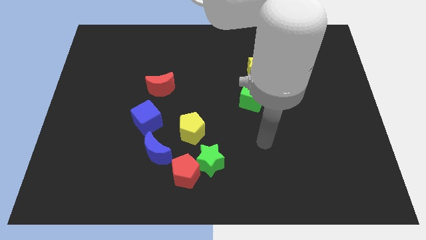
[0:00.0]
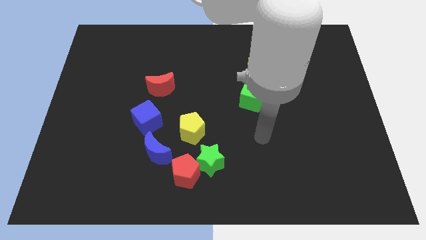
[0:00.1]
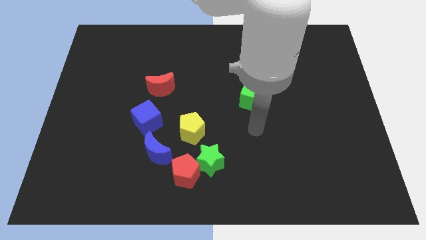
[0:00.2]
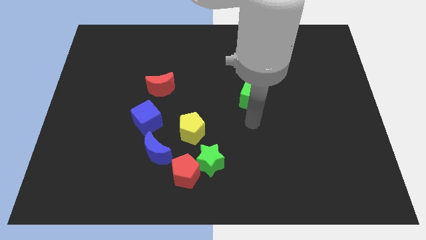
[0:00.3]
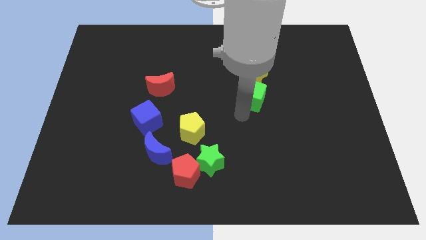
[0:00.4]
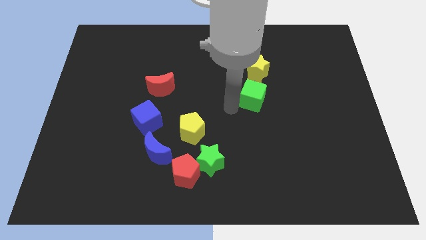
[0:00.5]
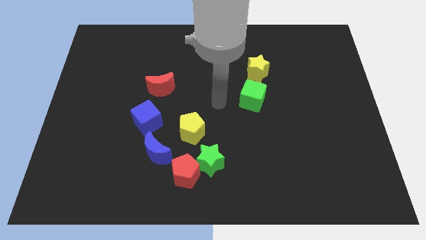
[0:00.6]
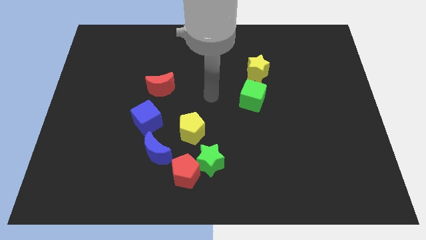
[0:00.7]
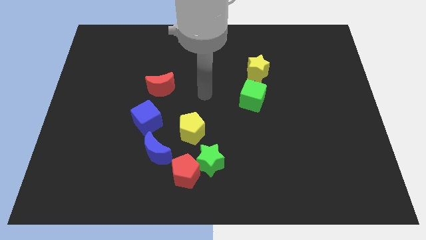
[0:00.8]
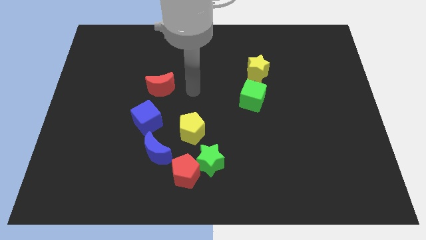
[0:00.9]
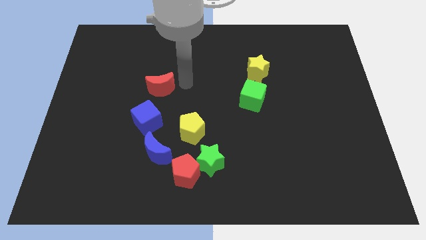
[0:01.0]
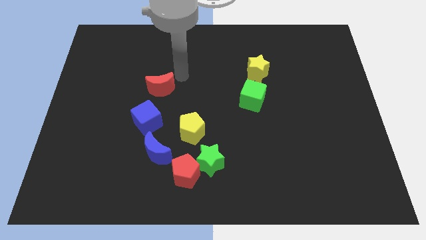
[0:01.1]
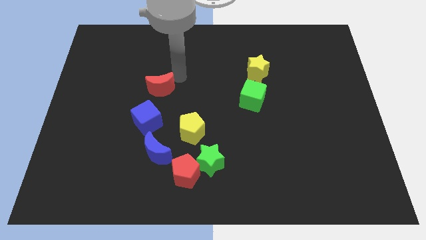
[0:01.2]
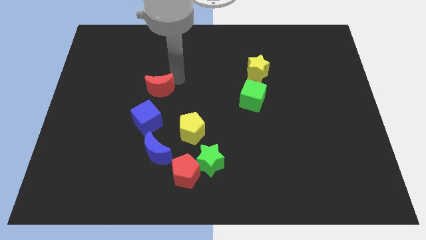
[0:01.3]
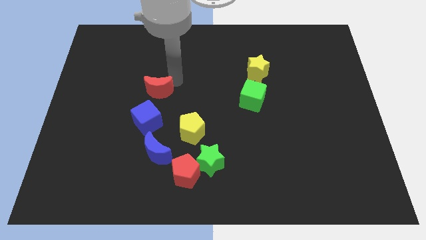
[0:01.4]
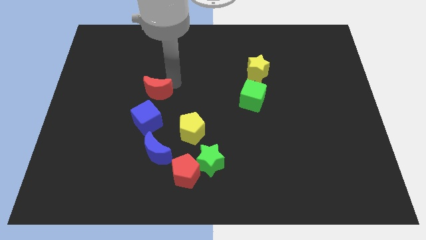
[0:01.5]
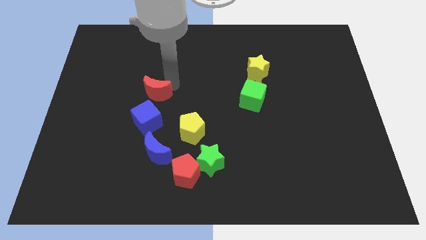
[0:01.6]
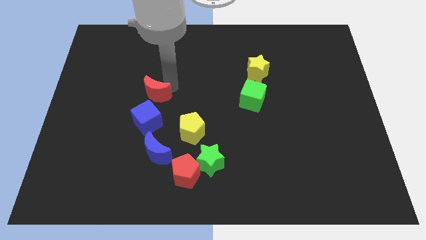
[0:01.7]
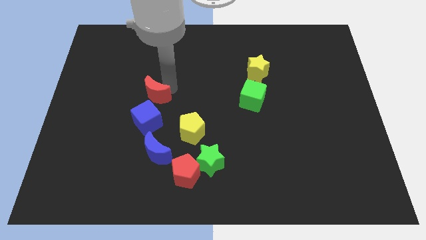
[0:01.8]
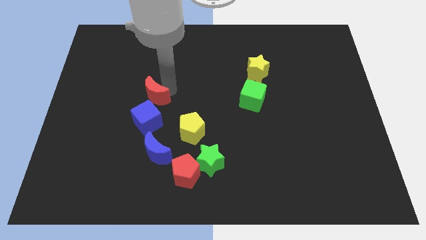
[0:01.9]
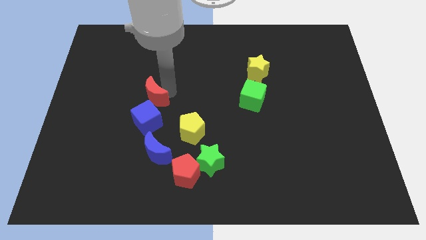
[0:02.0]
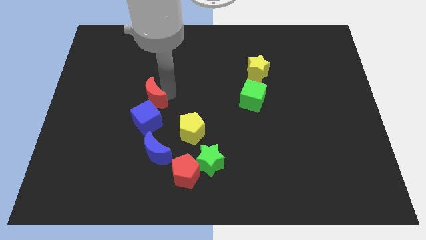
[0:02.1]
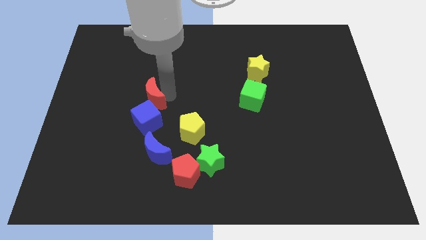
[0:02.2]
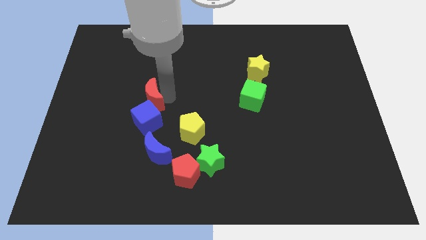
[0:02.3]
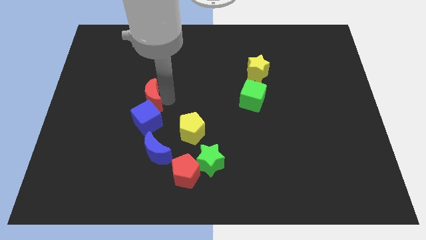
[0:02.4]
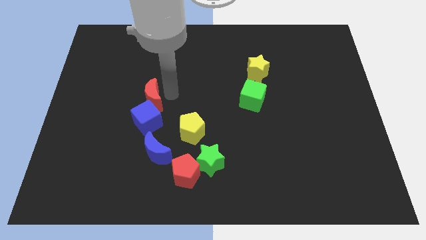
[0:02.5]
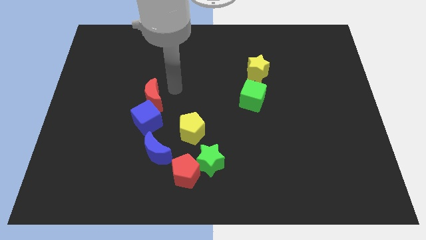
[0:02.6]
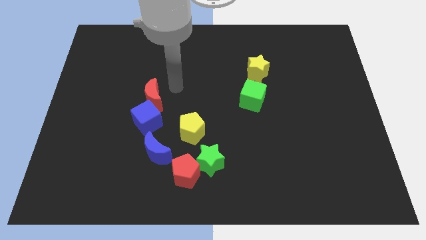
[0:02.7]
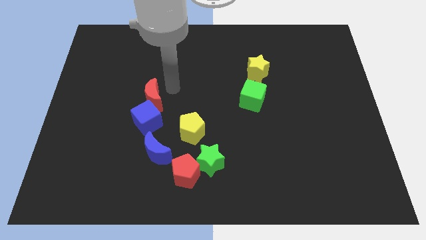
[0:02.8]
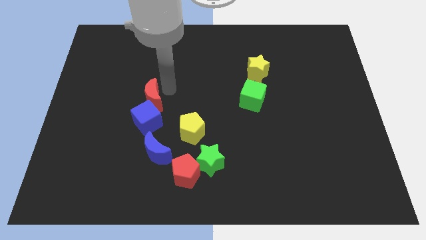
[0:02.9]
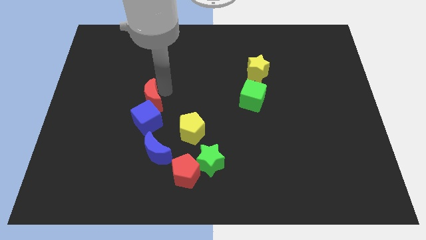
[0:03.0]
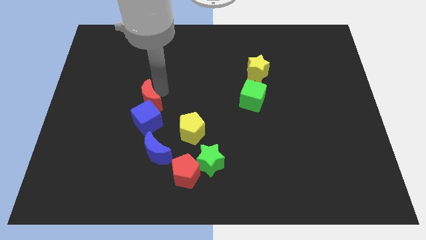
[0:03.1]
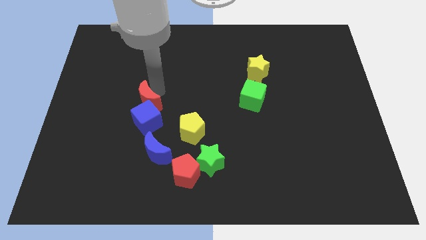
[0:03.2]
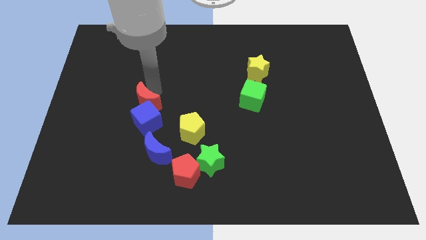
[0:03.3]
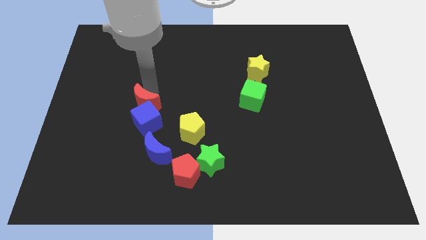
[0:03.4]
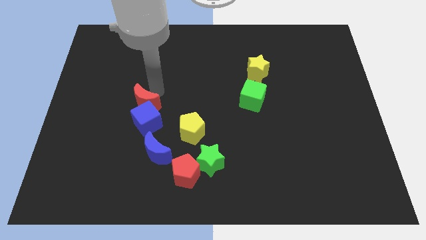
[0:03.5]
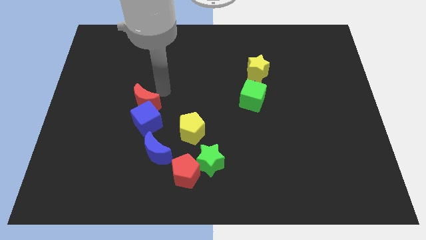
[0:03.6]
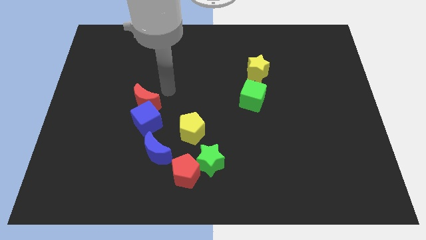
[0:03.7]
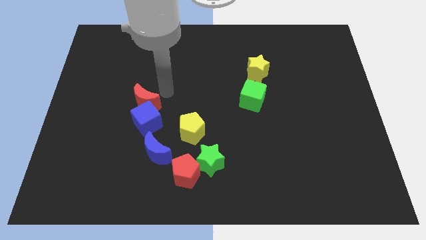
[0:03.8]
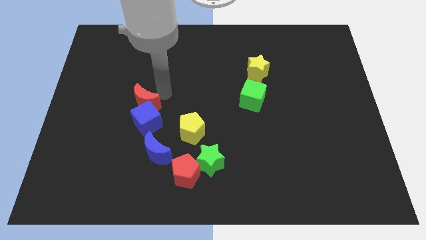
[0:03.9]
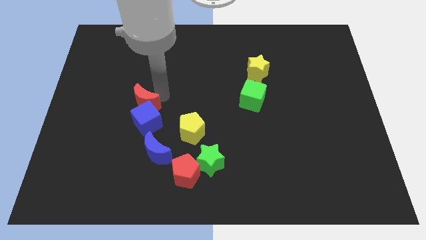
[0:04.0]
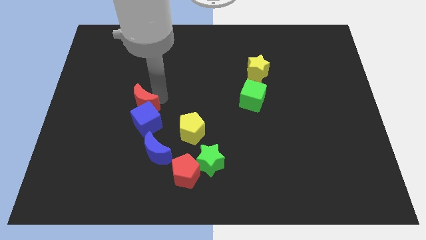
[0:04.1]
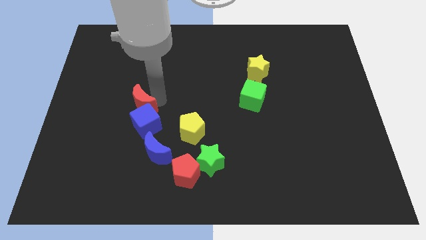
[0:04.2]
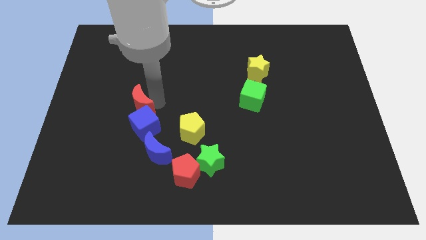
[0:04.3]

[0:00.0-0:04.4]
slightly move the red moon down and to the left diagonally

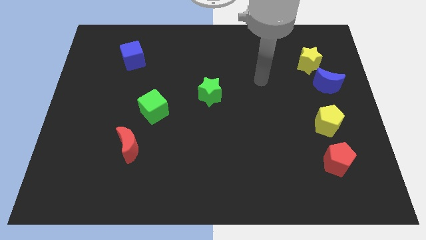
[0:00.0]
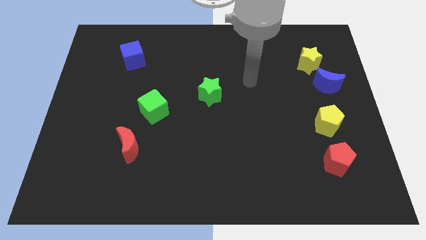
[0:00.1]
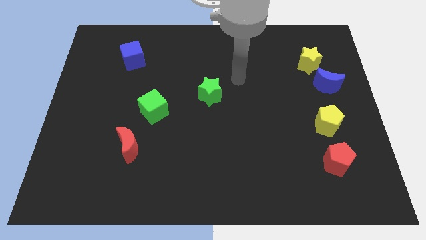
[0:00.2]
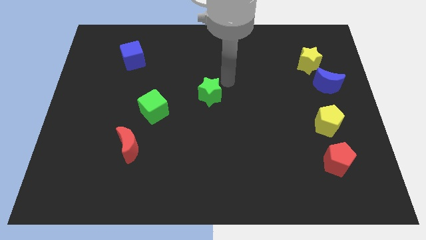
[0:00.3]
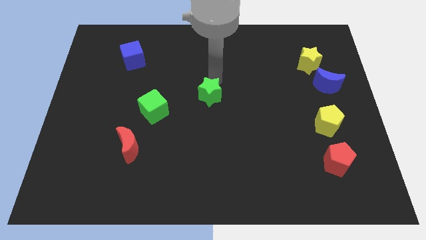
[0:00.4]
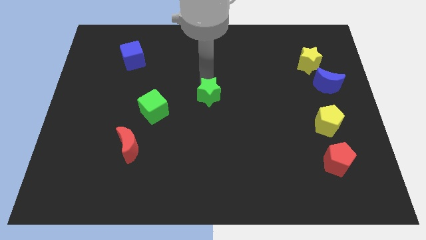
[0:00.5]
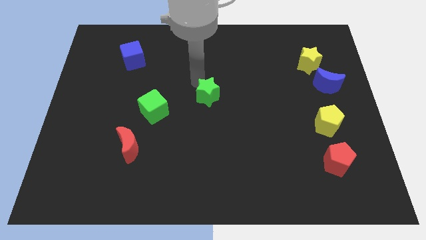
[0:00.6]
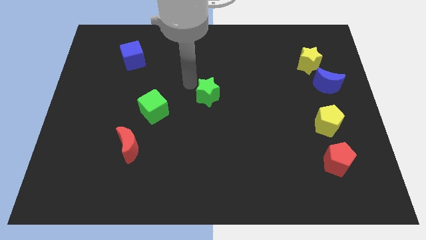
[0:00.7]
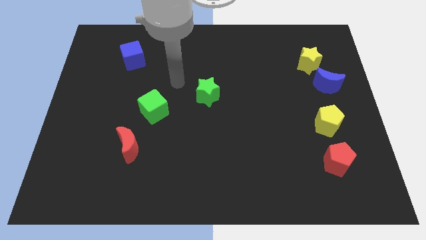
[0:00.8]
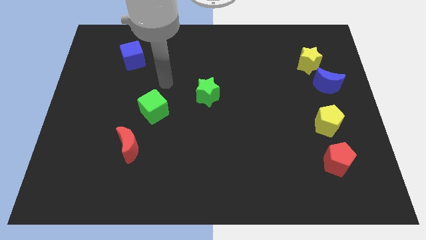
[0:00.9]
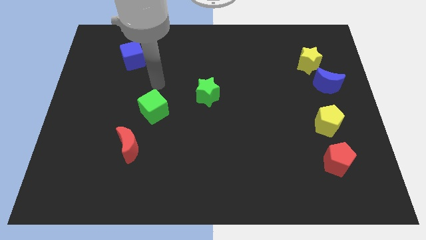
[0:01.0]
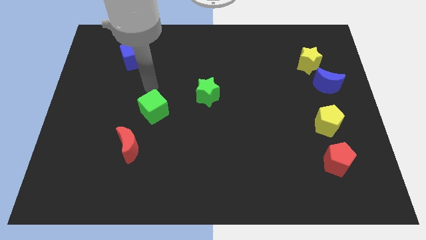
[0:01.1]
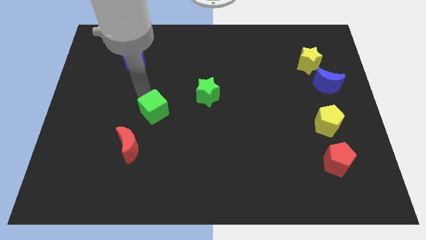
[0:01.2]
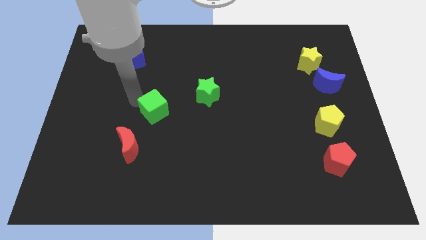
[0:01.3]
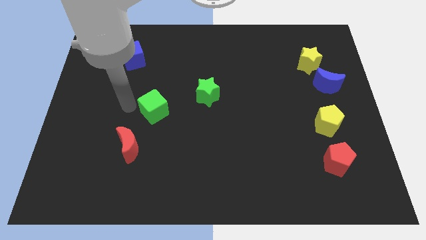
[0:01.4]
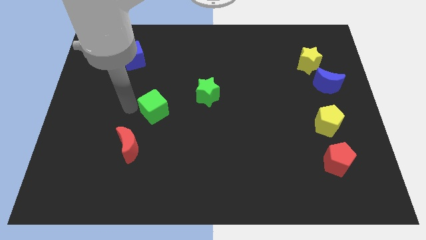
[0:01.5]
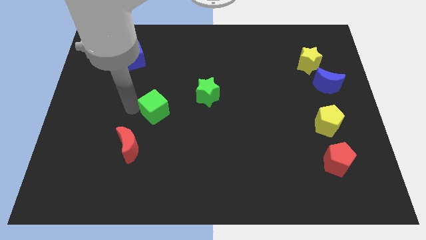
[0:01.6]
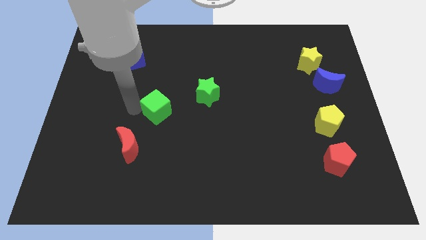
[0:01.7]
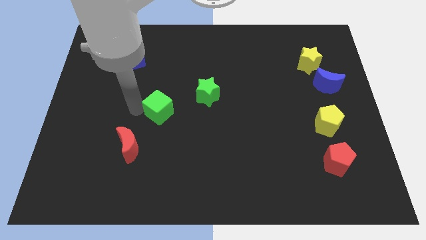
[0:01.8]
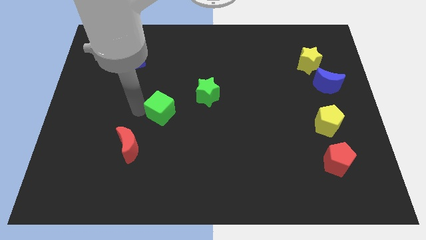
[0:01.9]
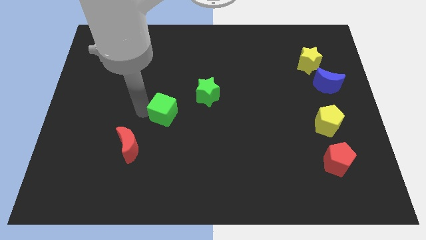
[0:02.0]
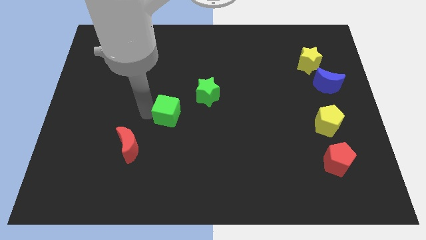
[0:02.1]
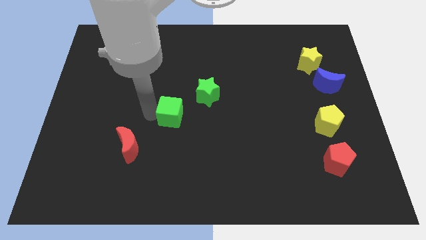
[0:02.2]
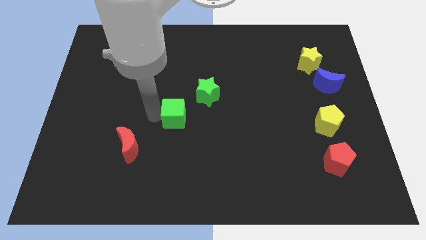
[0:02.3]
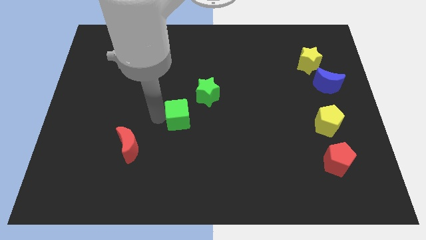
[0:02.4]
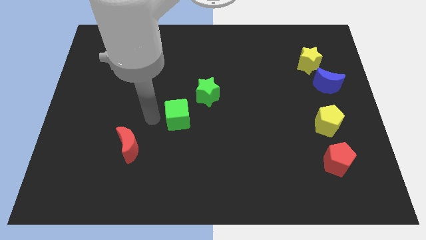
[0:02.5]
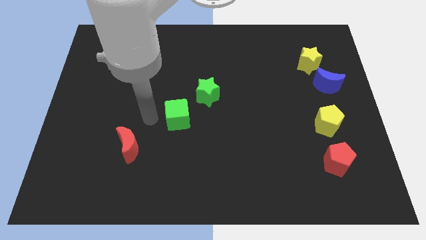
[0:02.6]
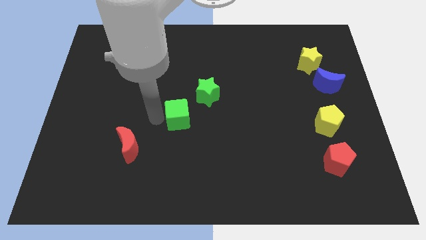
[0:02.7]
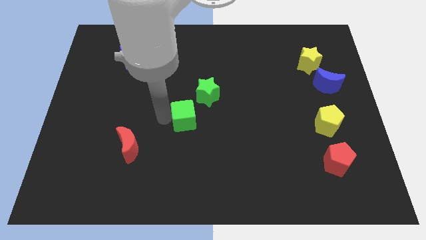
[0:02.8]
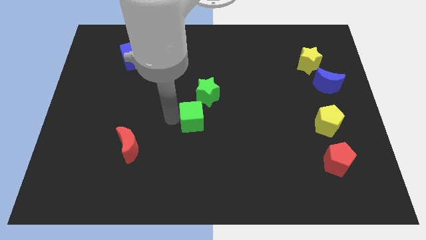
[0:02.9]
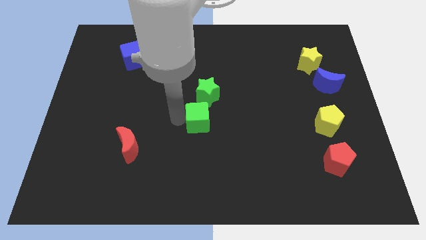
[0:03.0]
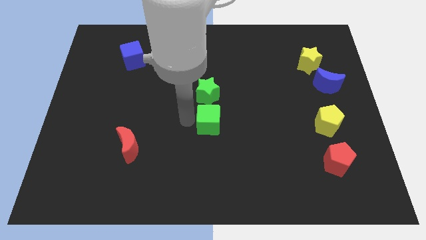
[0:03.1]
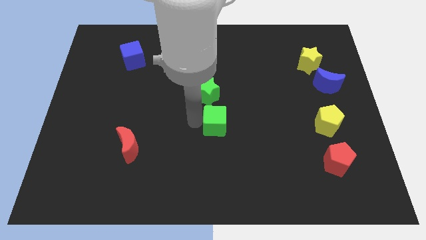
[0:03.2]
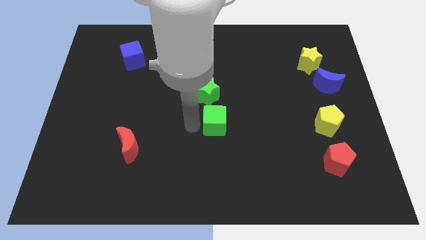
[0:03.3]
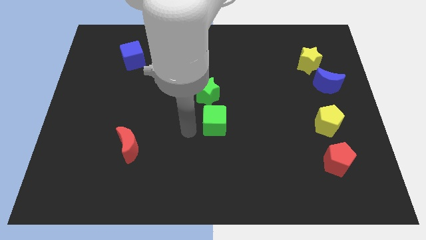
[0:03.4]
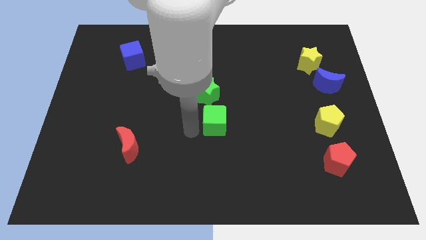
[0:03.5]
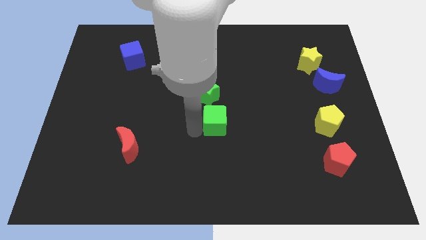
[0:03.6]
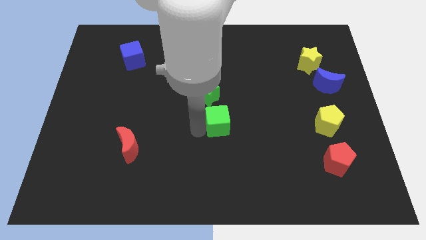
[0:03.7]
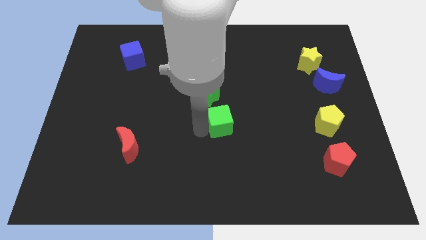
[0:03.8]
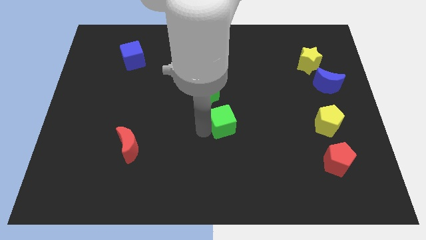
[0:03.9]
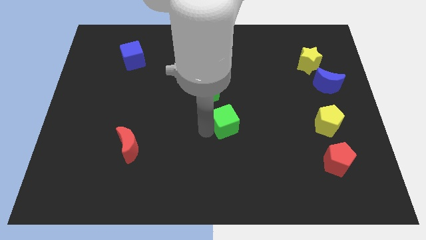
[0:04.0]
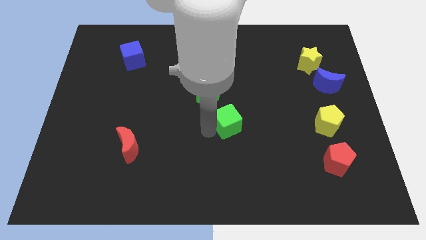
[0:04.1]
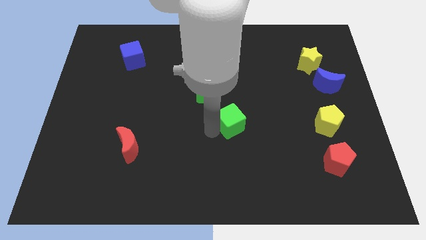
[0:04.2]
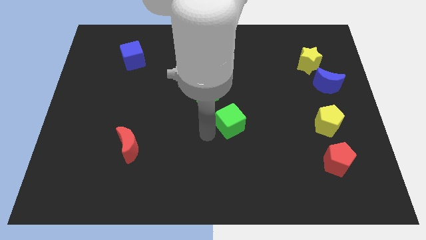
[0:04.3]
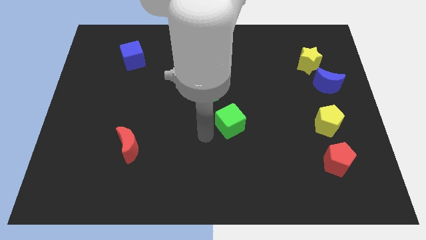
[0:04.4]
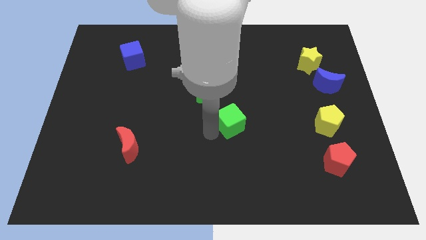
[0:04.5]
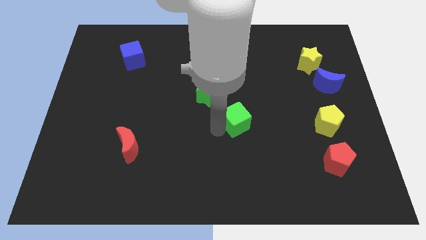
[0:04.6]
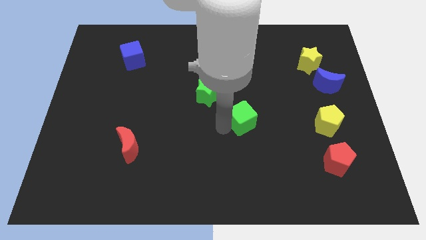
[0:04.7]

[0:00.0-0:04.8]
move the green cube right
